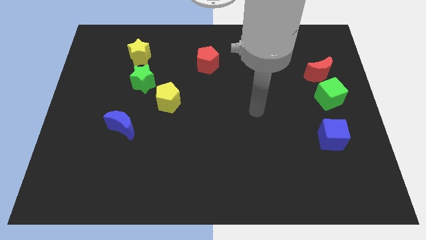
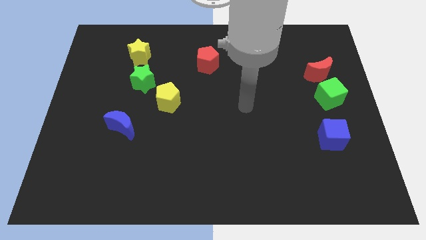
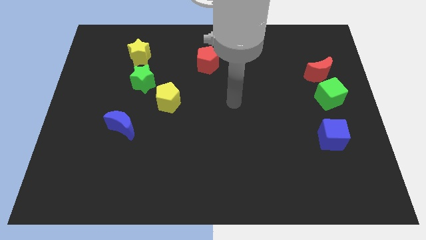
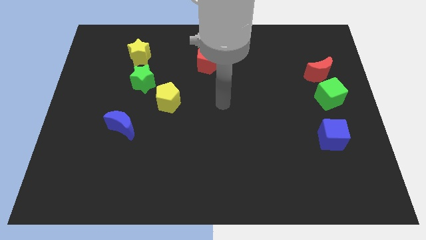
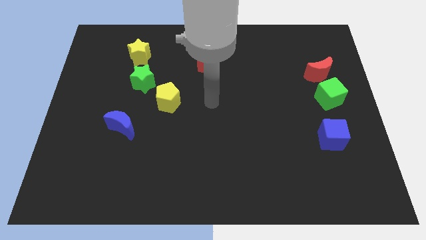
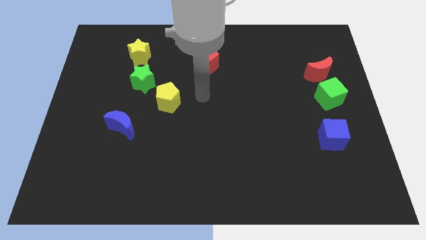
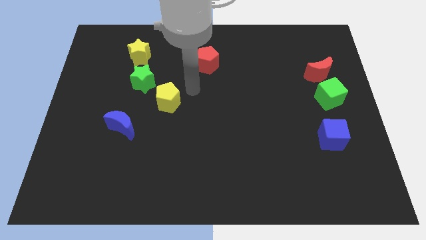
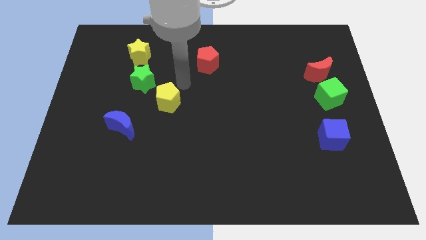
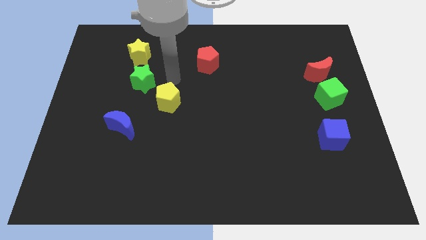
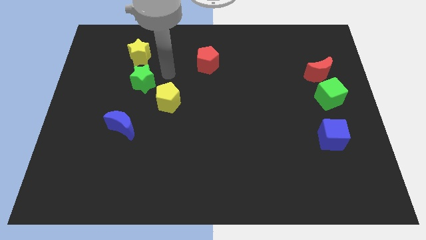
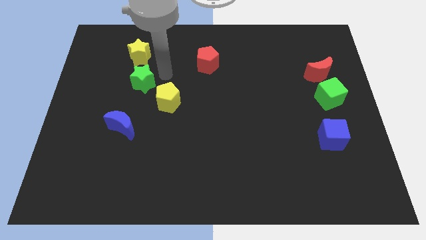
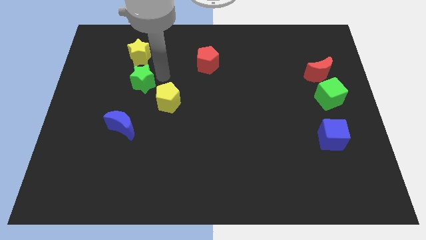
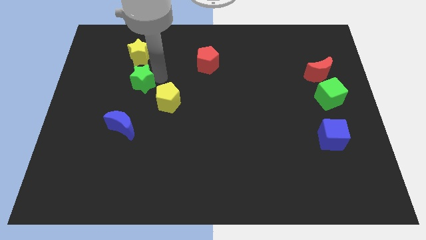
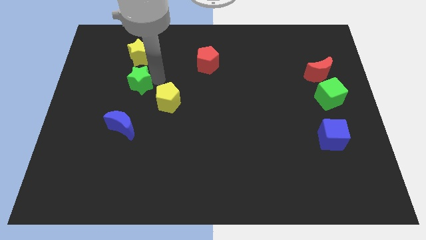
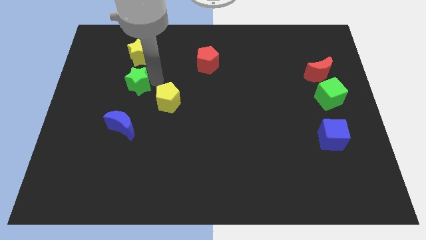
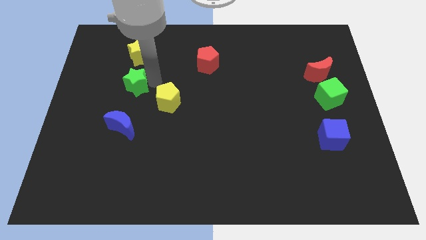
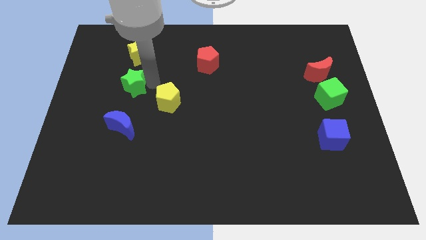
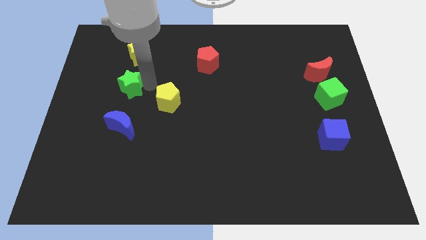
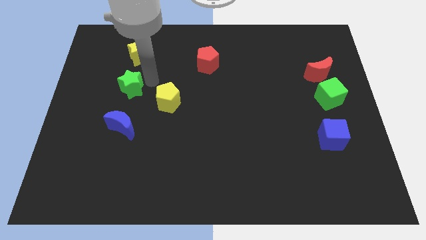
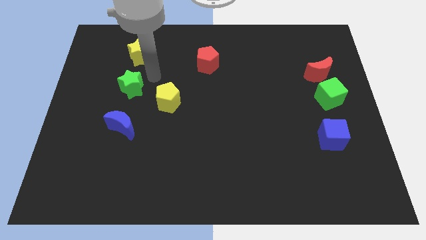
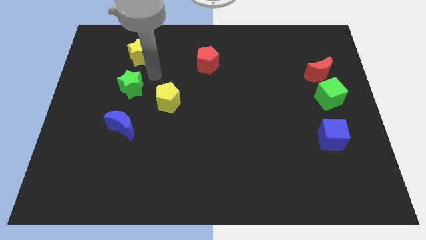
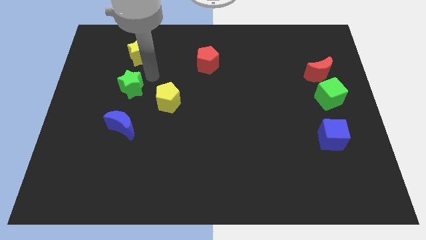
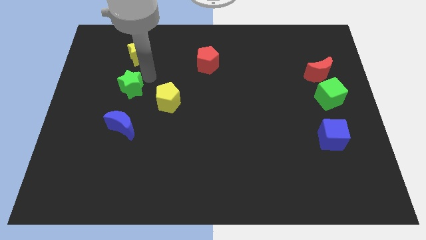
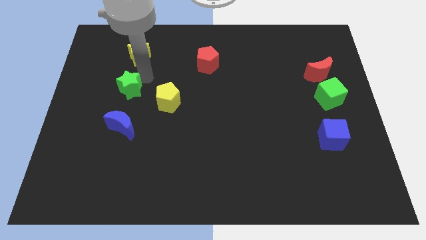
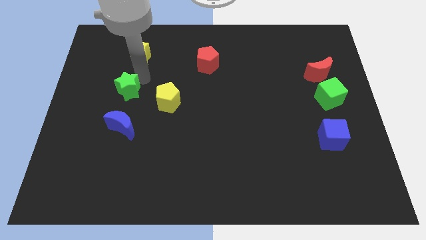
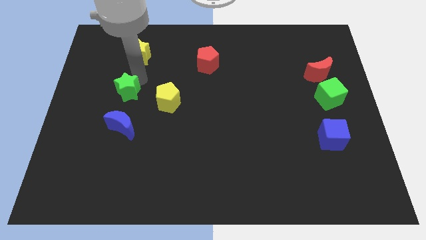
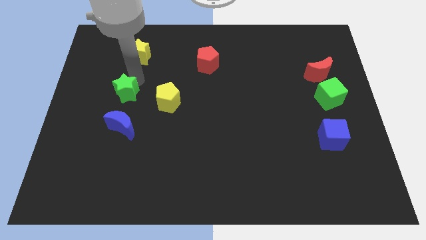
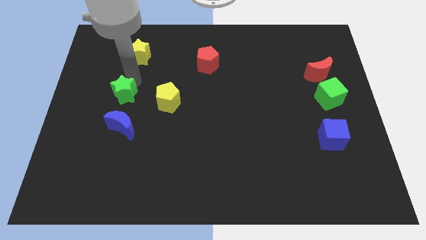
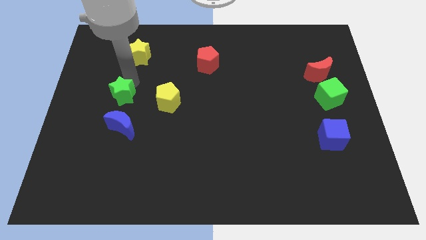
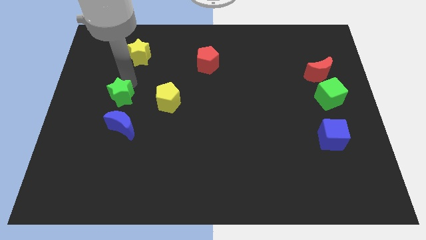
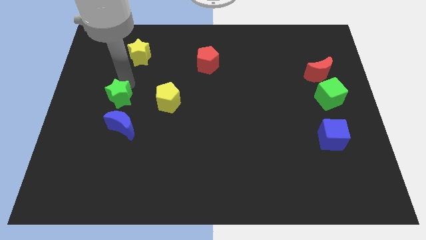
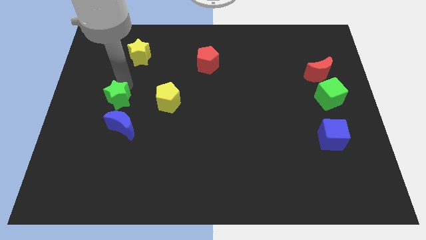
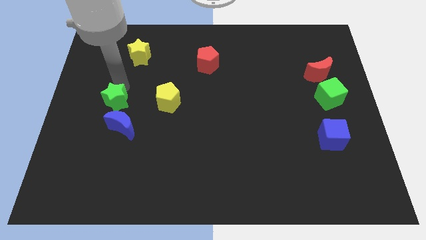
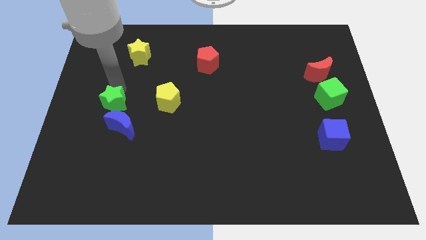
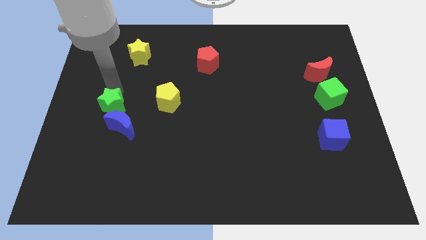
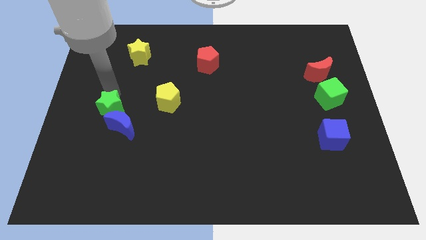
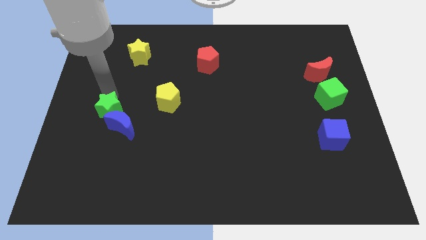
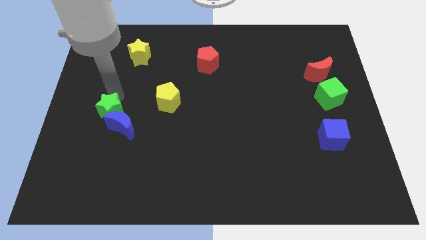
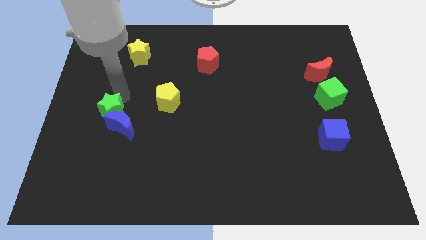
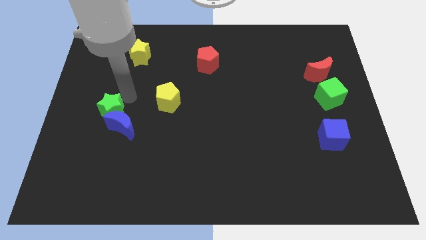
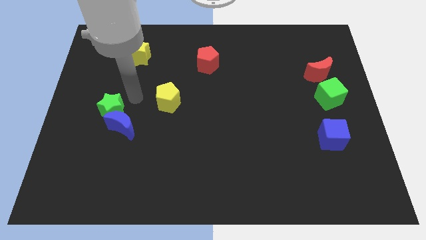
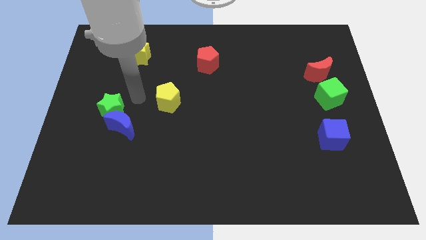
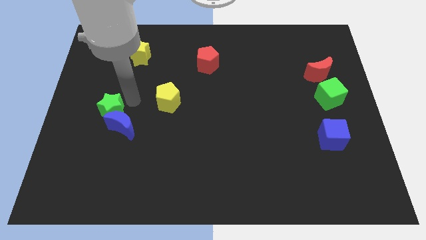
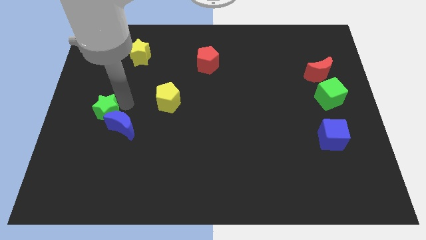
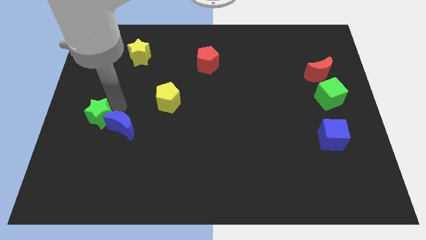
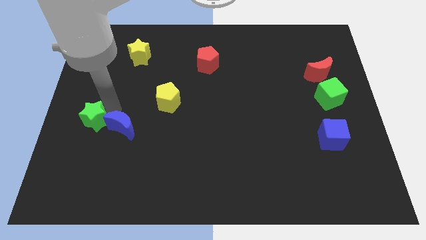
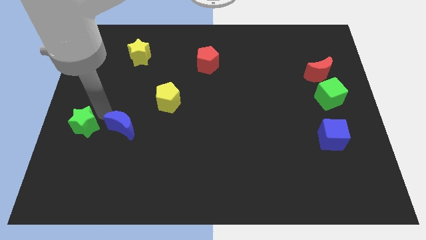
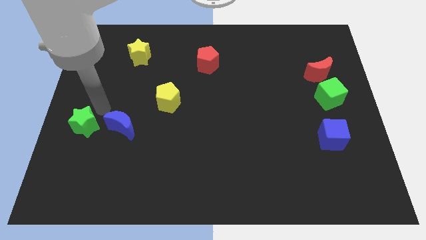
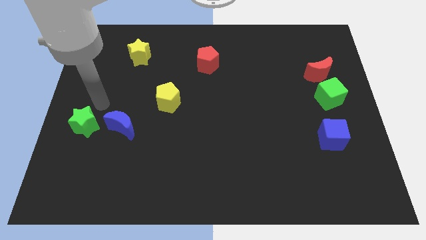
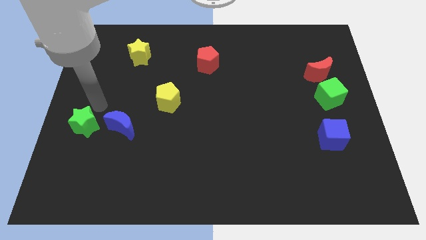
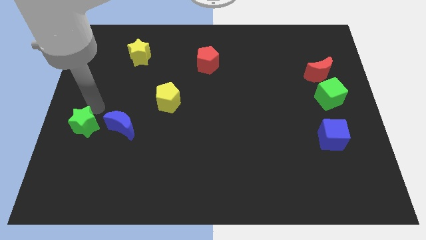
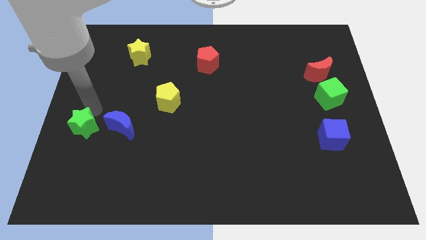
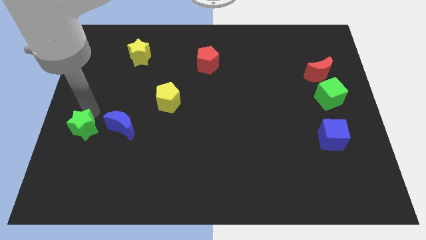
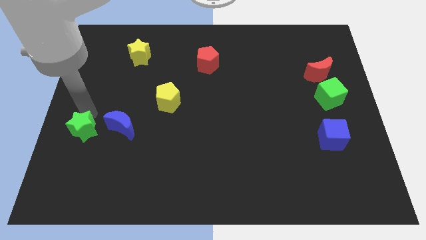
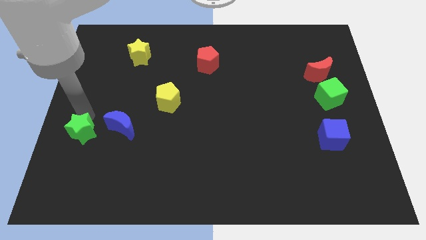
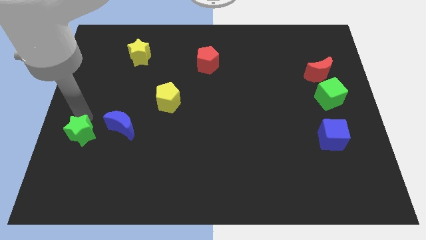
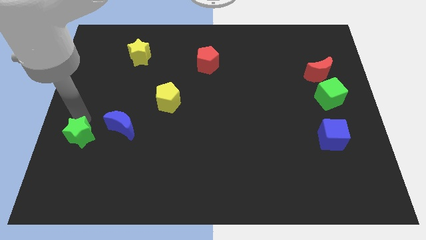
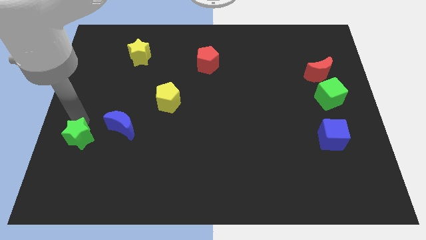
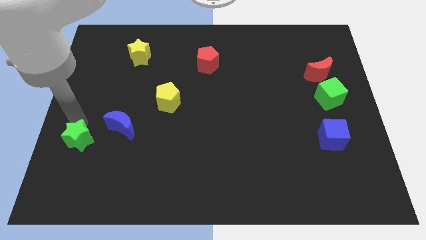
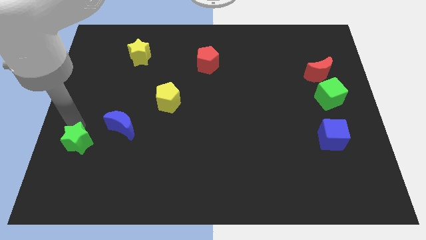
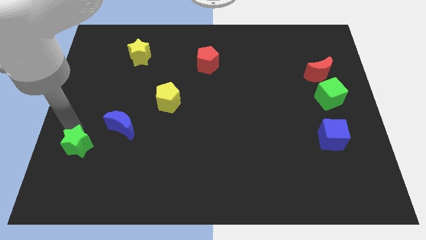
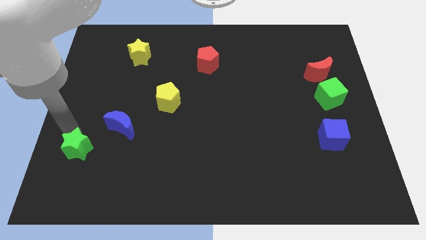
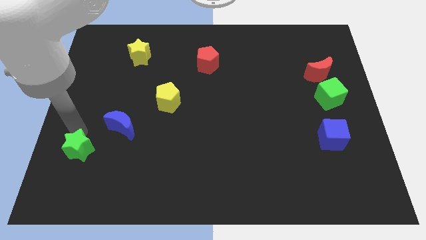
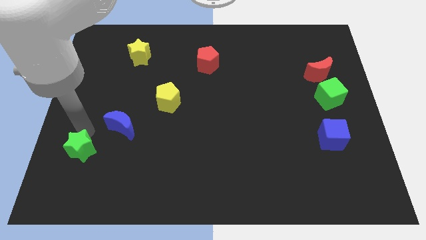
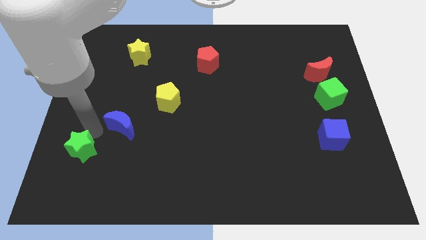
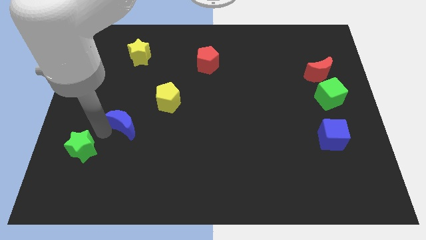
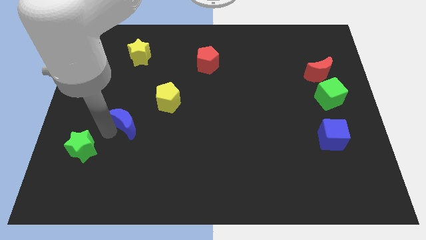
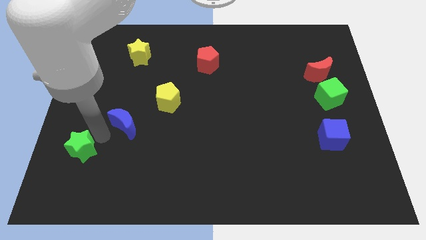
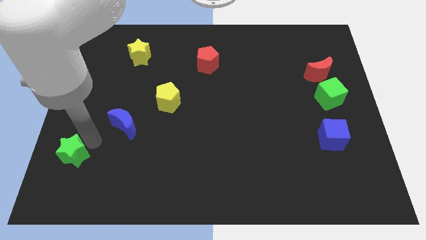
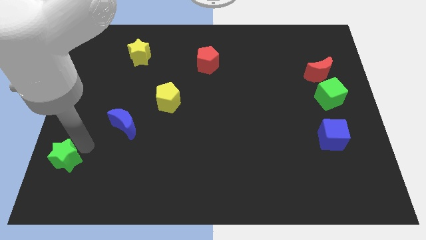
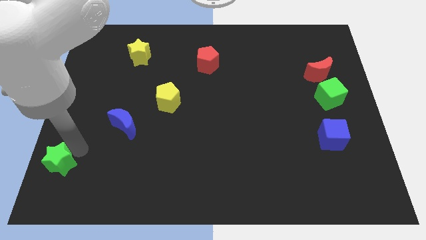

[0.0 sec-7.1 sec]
push the green star to the bottom left

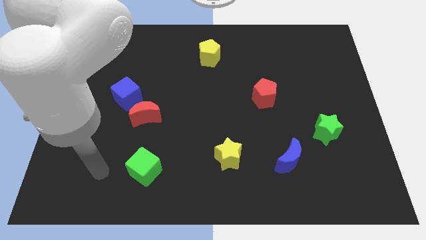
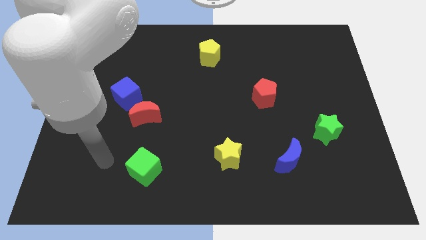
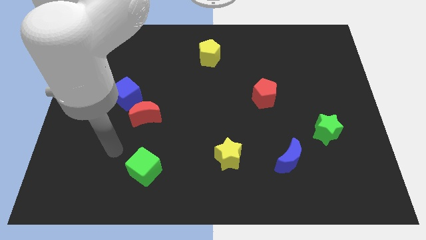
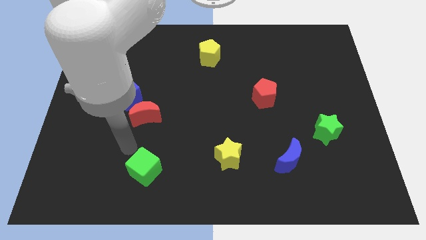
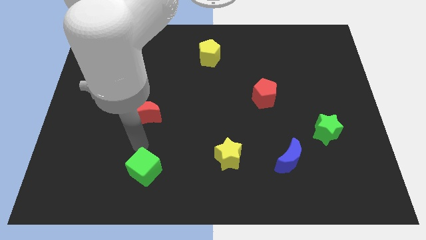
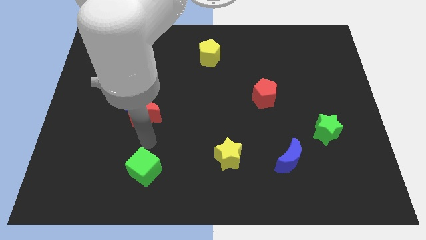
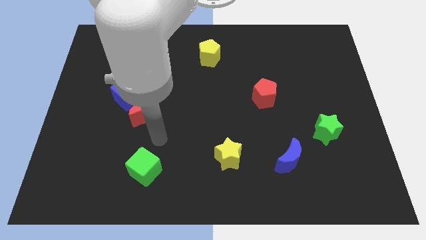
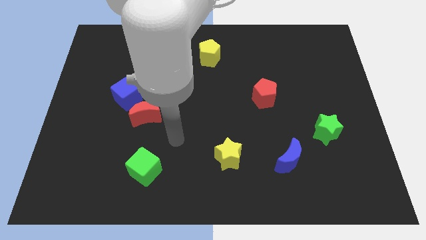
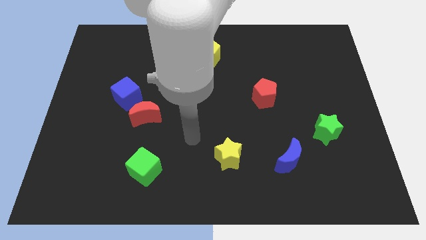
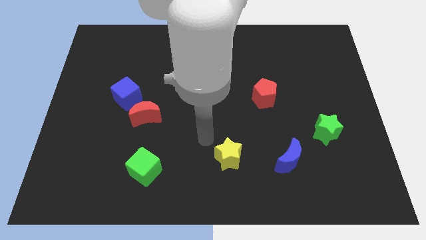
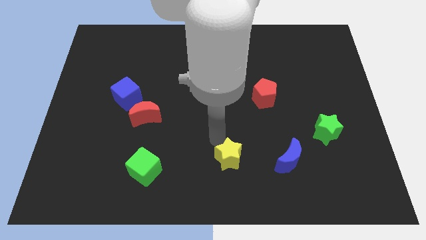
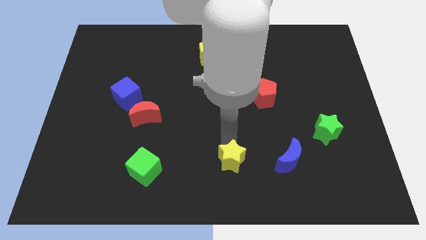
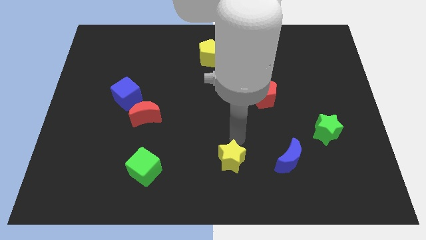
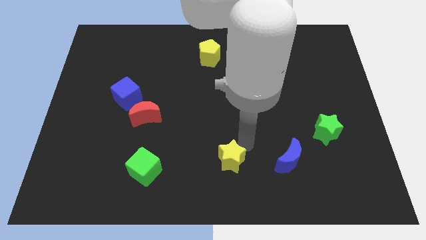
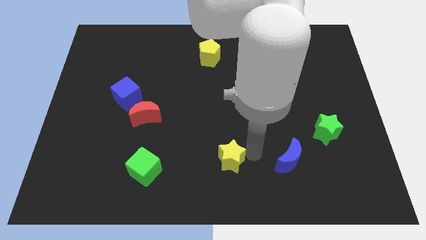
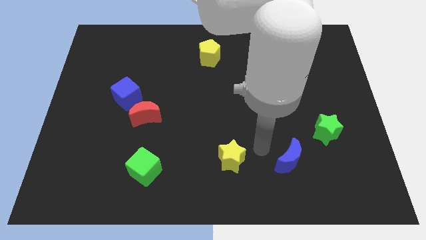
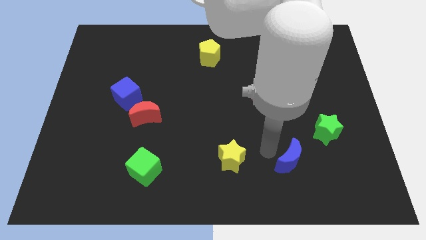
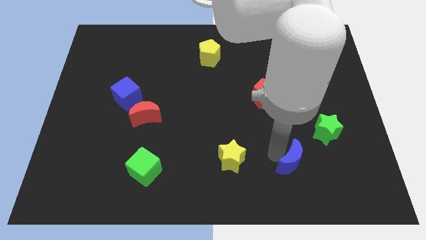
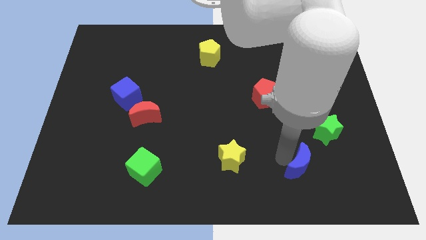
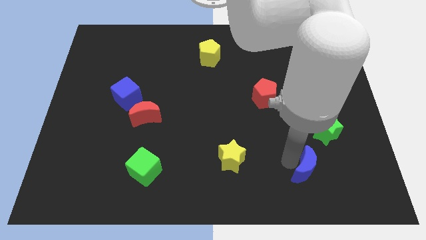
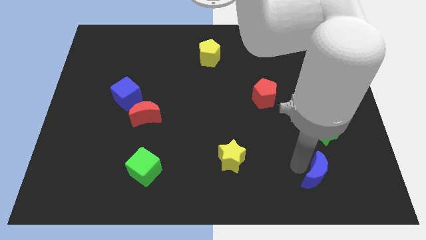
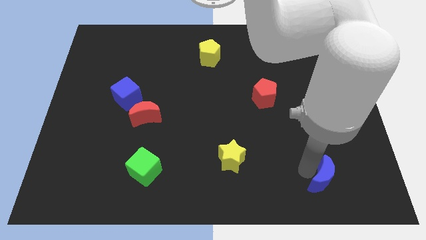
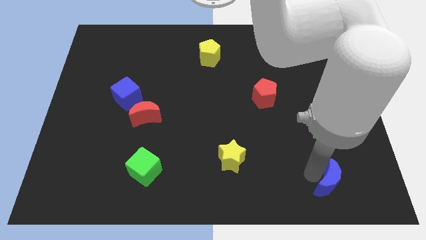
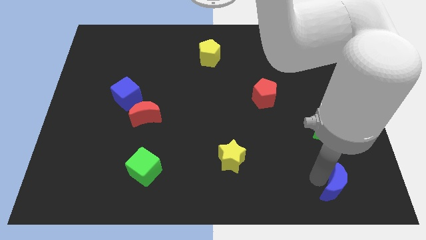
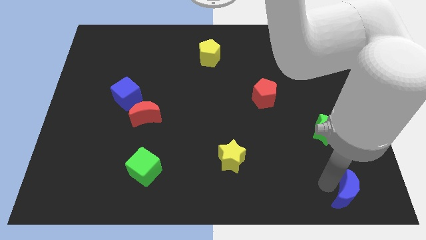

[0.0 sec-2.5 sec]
push the blue moon to the bottom right
